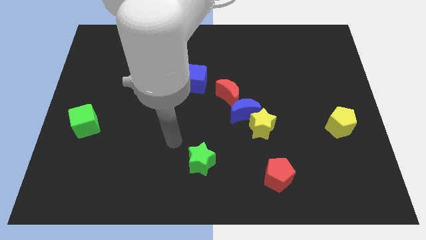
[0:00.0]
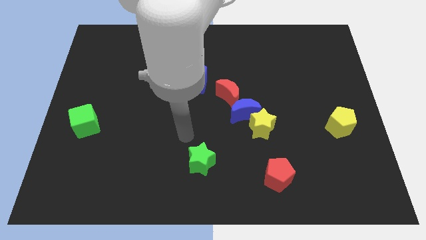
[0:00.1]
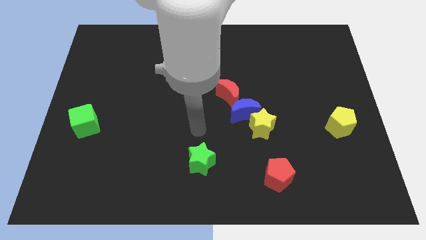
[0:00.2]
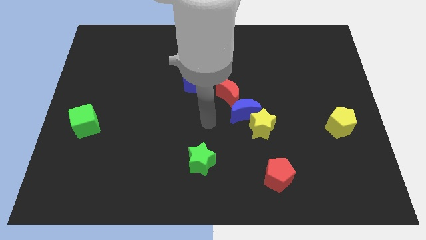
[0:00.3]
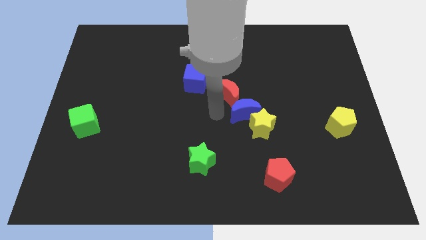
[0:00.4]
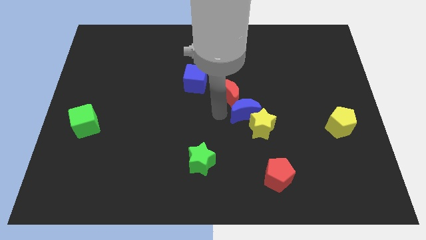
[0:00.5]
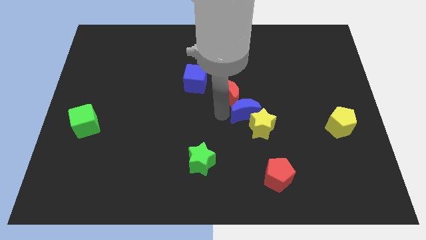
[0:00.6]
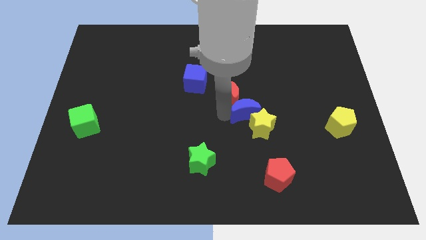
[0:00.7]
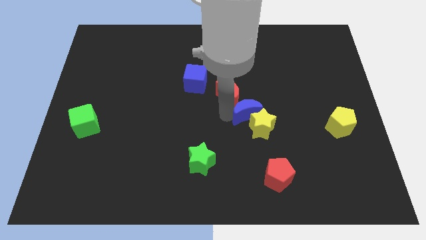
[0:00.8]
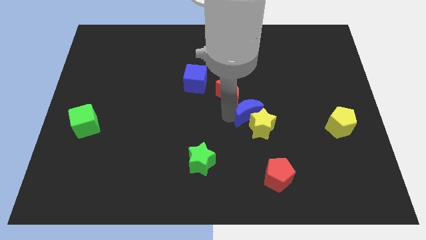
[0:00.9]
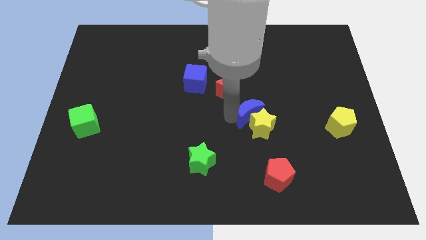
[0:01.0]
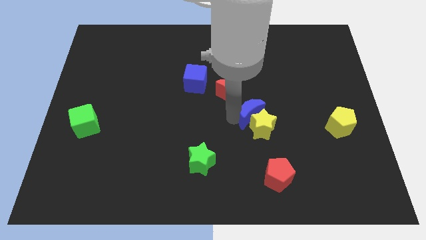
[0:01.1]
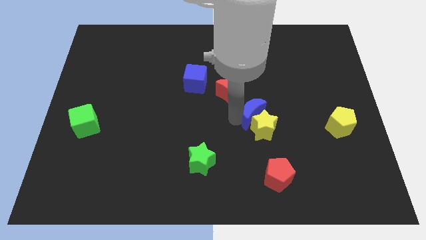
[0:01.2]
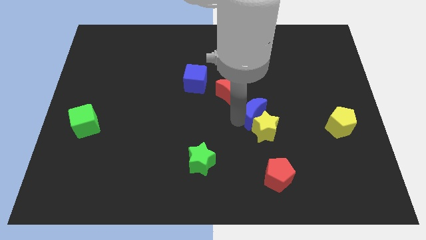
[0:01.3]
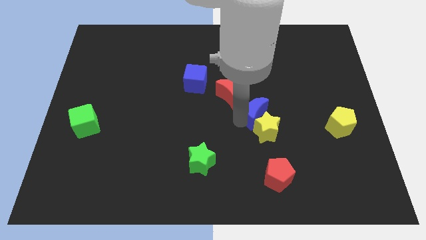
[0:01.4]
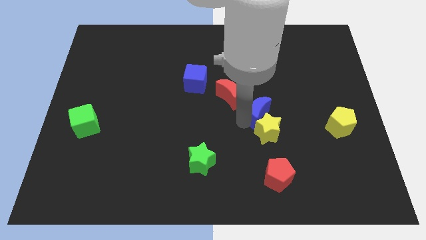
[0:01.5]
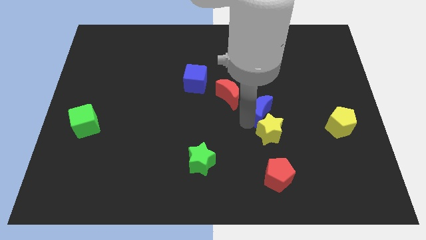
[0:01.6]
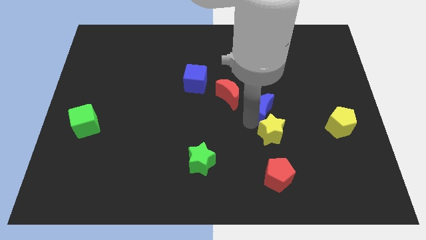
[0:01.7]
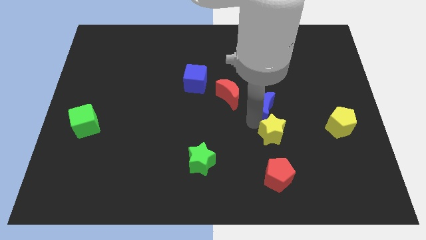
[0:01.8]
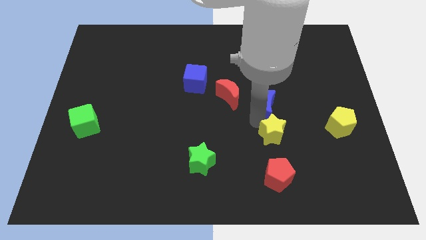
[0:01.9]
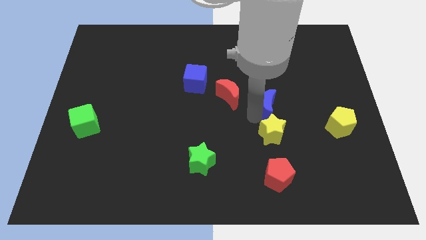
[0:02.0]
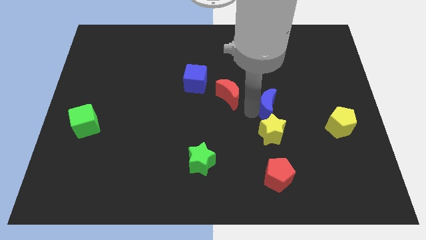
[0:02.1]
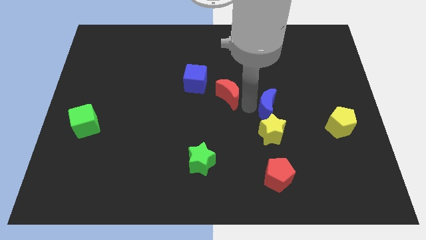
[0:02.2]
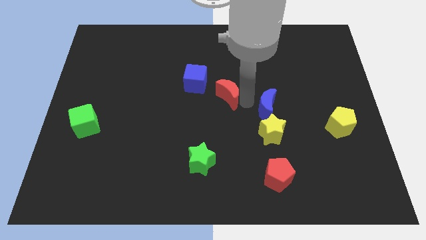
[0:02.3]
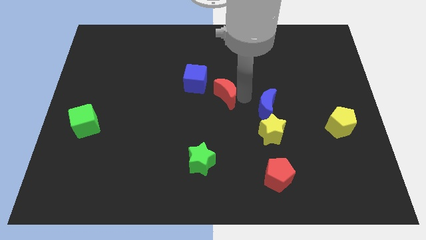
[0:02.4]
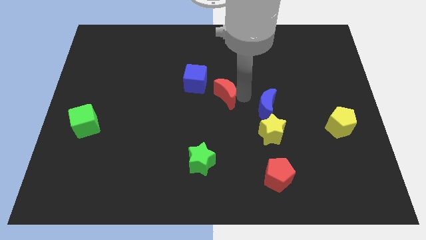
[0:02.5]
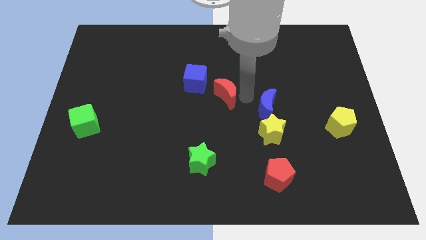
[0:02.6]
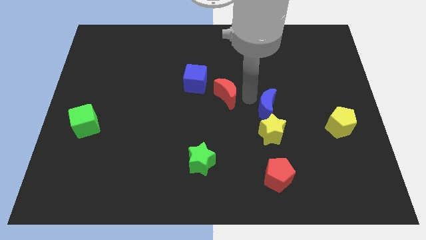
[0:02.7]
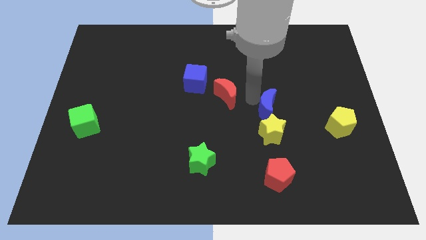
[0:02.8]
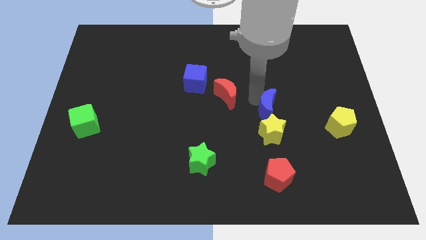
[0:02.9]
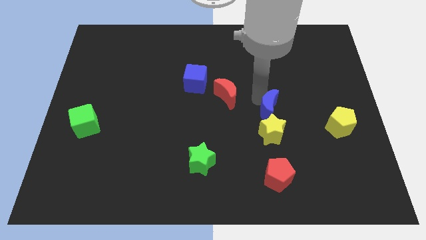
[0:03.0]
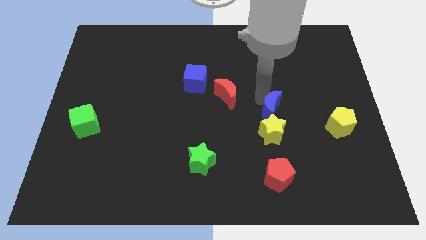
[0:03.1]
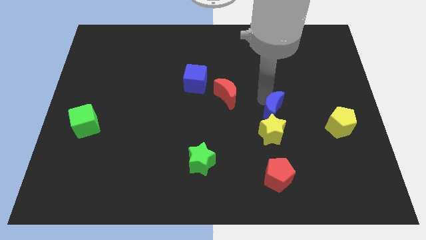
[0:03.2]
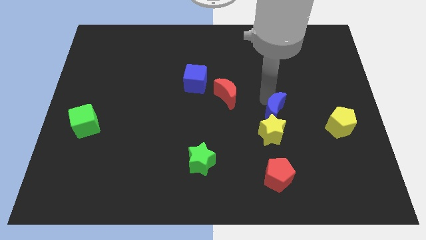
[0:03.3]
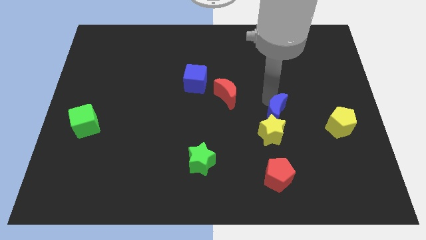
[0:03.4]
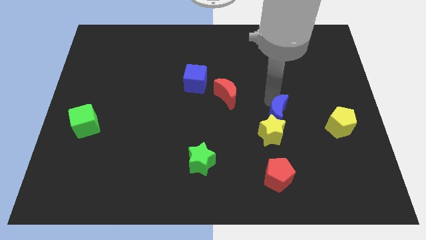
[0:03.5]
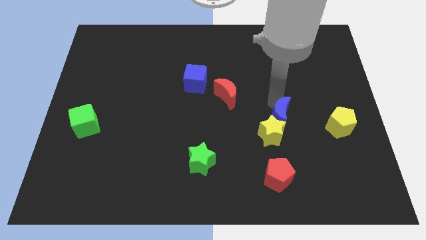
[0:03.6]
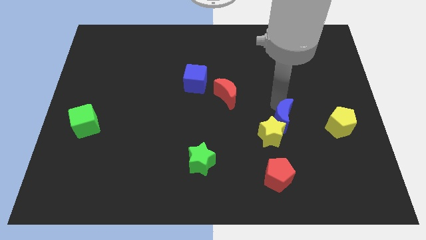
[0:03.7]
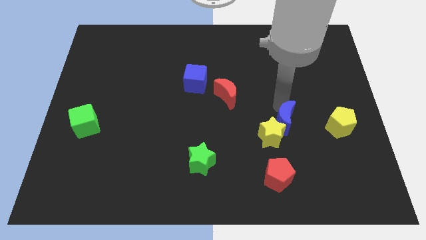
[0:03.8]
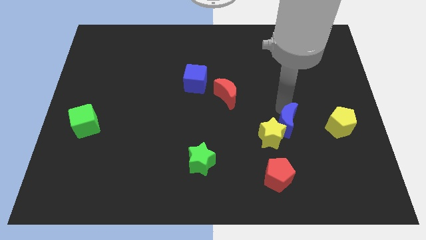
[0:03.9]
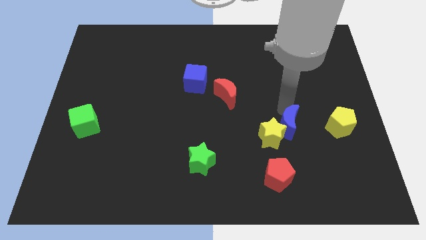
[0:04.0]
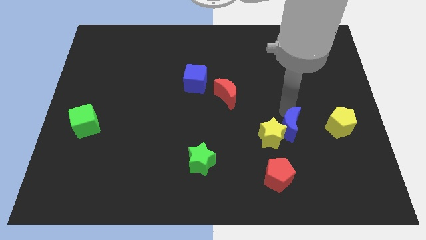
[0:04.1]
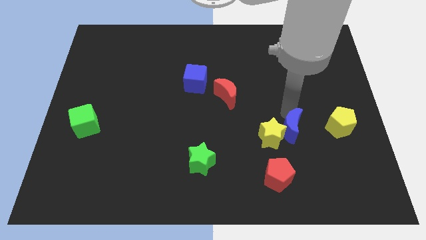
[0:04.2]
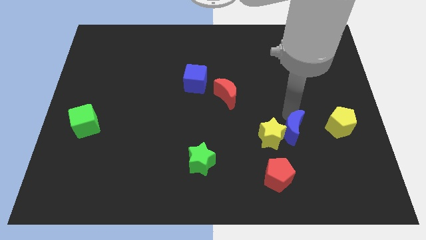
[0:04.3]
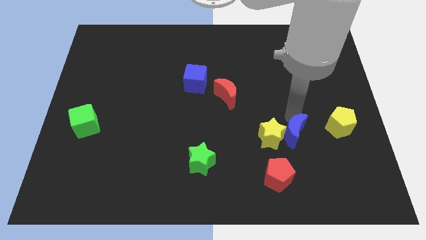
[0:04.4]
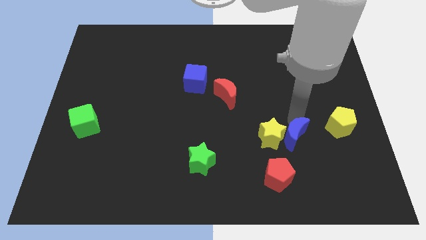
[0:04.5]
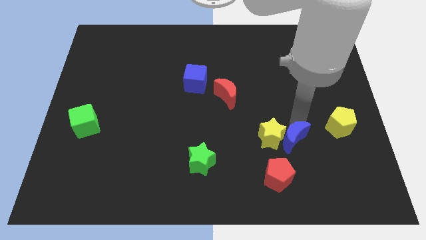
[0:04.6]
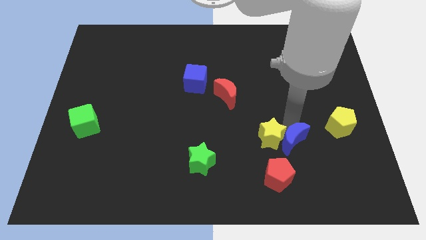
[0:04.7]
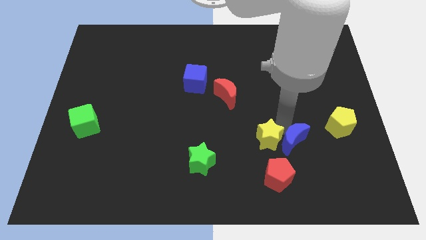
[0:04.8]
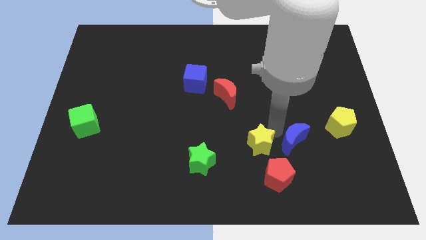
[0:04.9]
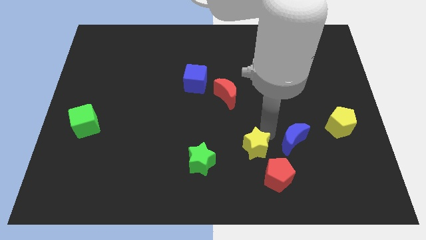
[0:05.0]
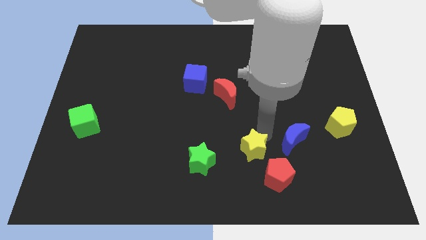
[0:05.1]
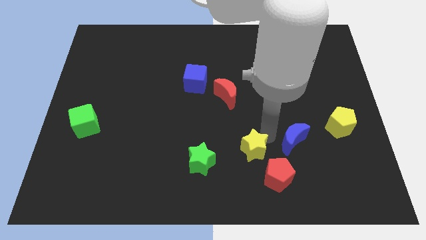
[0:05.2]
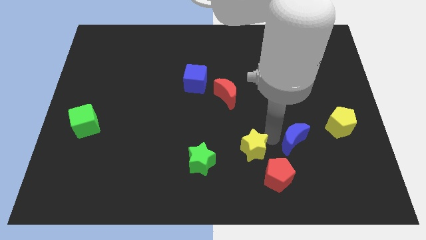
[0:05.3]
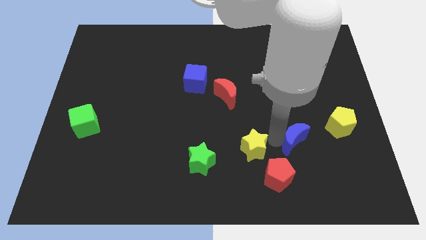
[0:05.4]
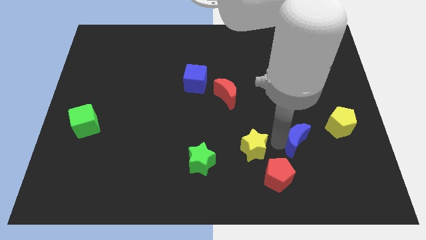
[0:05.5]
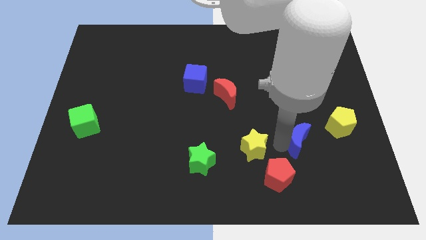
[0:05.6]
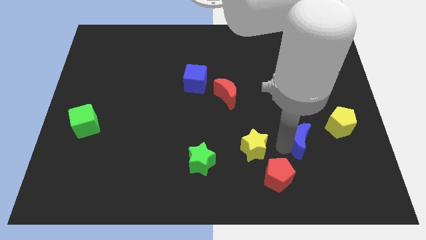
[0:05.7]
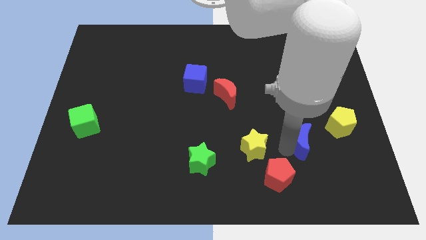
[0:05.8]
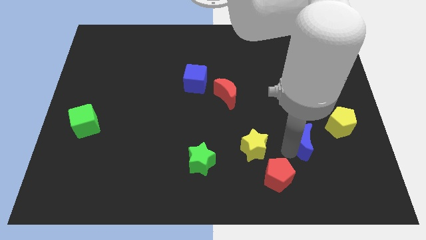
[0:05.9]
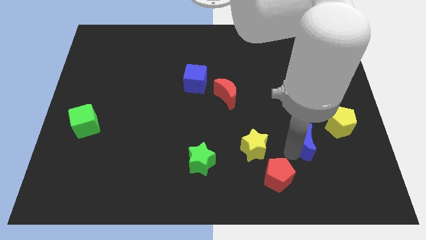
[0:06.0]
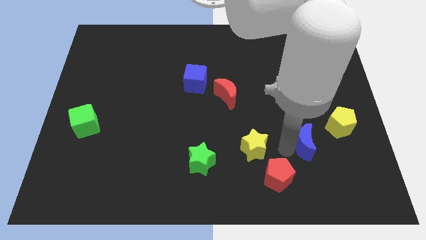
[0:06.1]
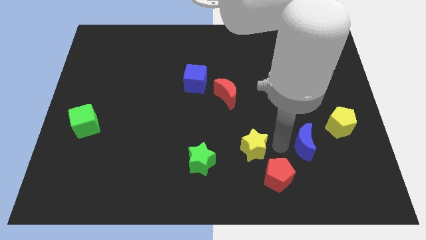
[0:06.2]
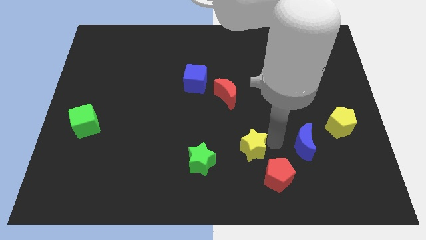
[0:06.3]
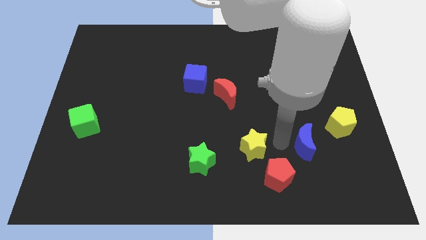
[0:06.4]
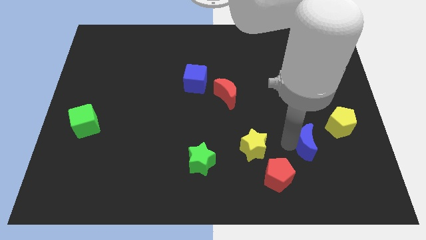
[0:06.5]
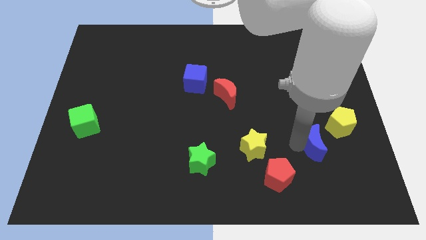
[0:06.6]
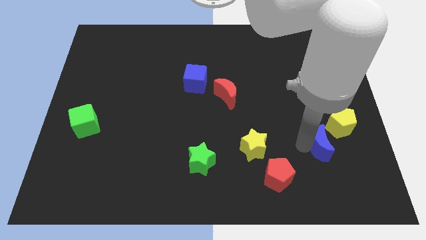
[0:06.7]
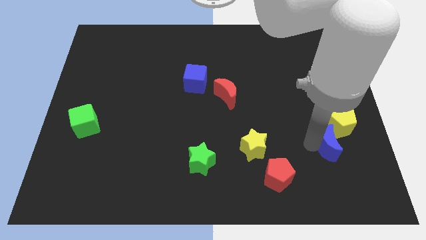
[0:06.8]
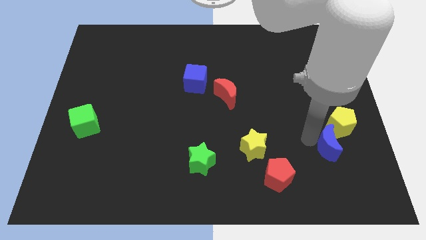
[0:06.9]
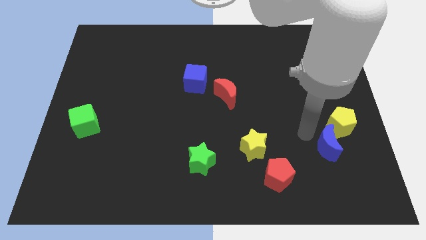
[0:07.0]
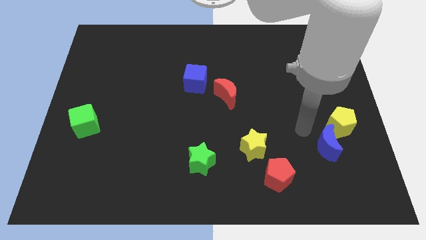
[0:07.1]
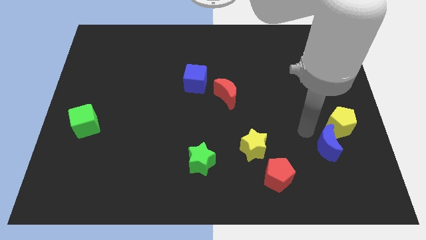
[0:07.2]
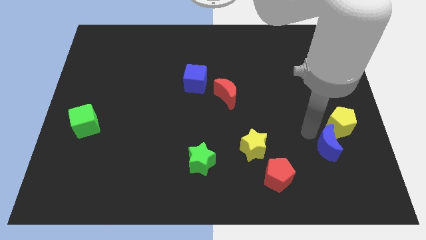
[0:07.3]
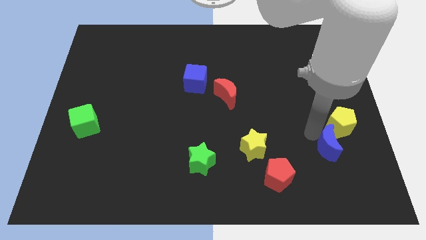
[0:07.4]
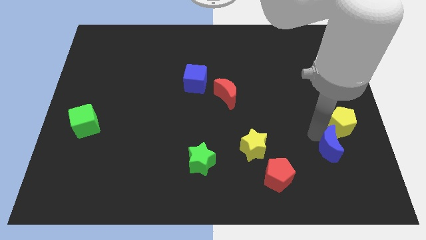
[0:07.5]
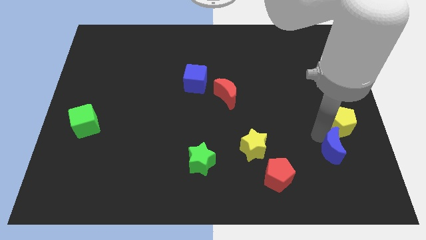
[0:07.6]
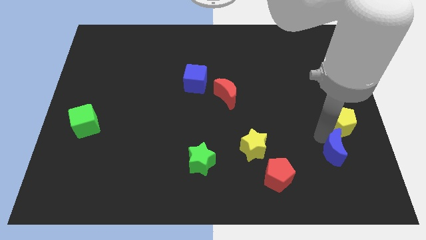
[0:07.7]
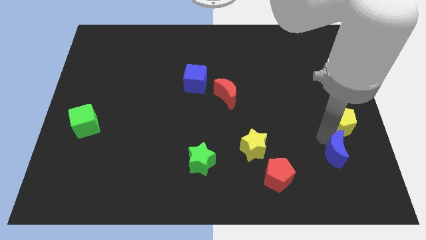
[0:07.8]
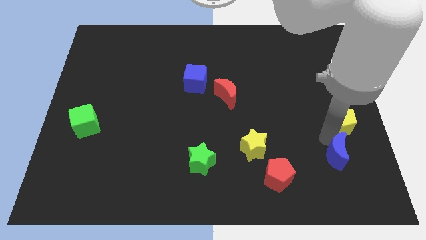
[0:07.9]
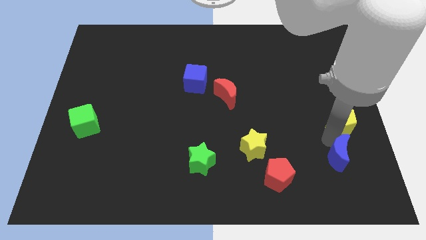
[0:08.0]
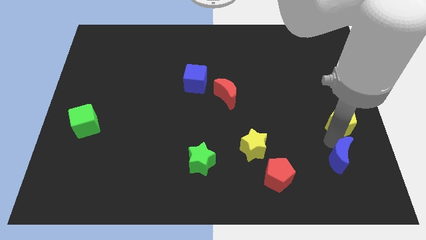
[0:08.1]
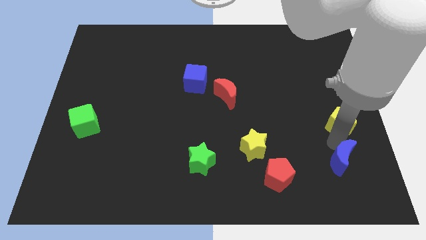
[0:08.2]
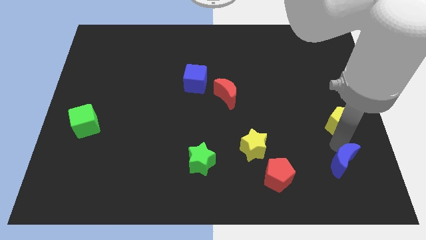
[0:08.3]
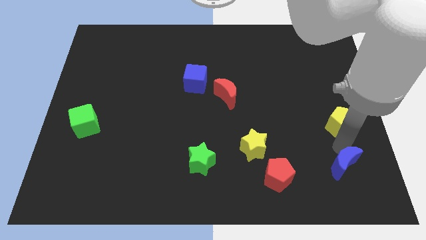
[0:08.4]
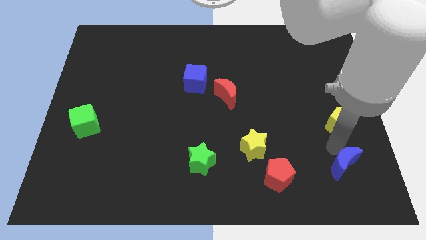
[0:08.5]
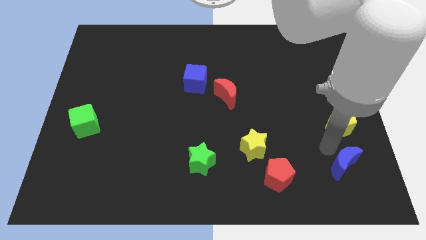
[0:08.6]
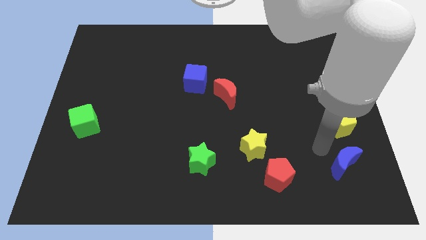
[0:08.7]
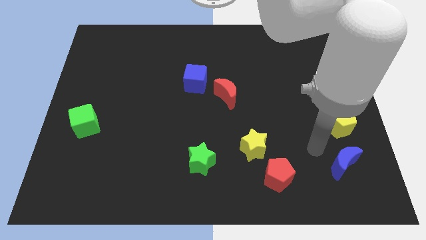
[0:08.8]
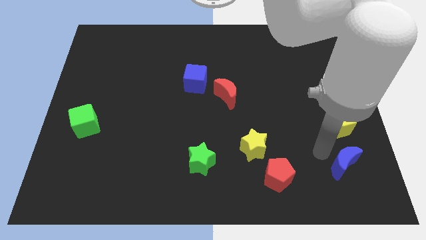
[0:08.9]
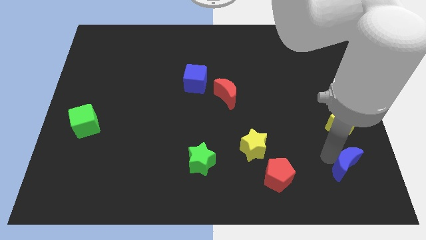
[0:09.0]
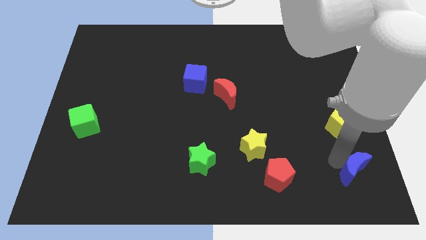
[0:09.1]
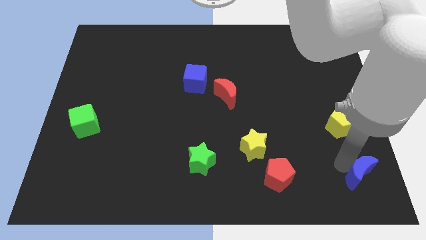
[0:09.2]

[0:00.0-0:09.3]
push the blue moon to the bottom right
